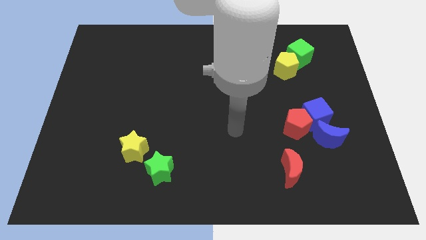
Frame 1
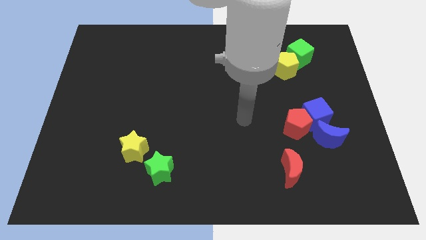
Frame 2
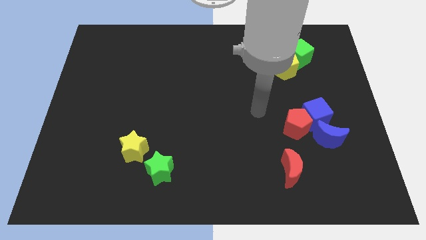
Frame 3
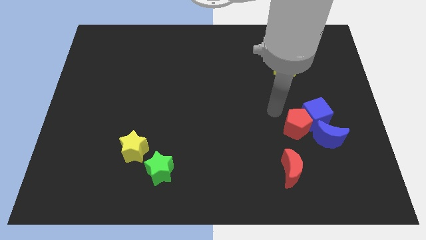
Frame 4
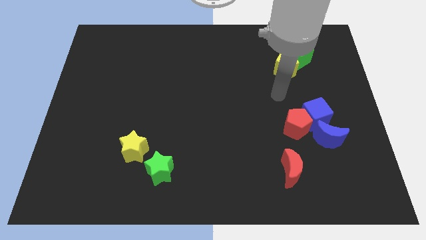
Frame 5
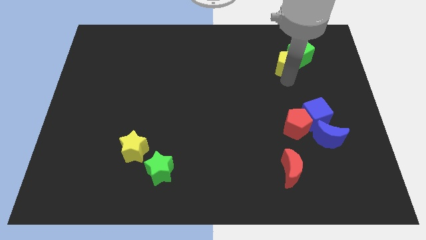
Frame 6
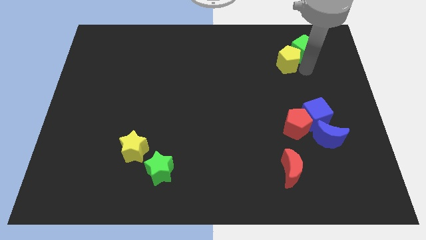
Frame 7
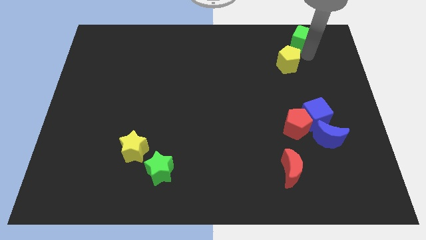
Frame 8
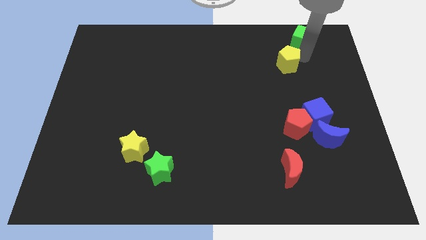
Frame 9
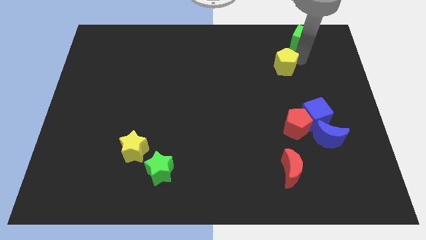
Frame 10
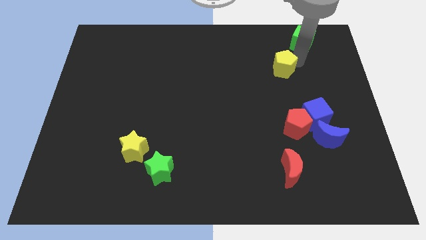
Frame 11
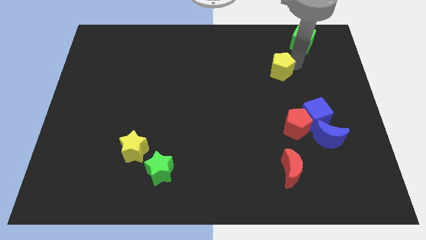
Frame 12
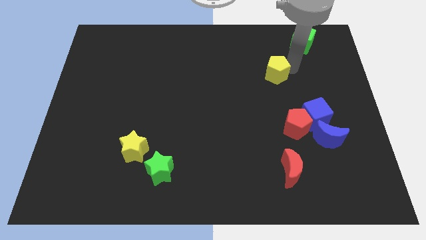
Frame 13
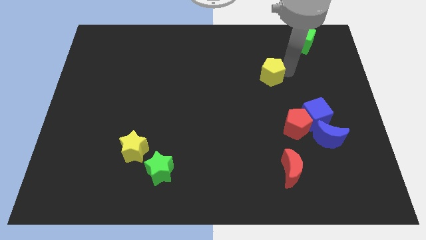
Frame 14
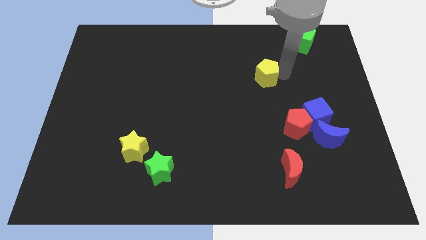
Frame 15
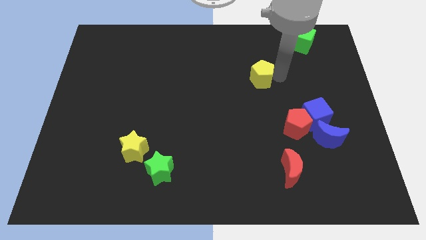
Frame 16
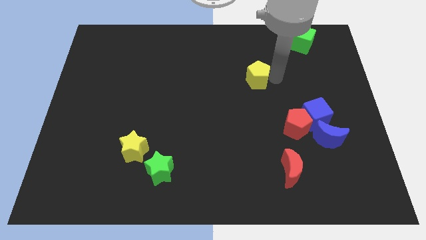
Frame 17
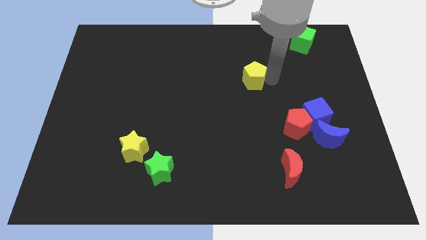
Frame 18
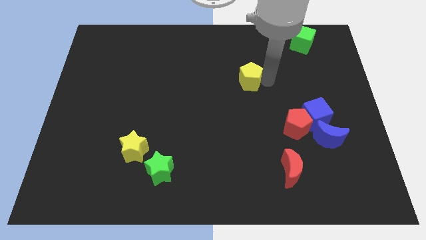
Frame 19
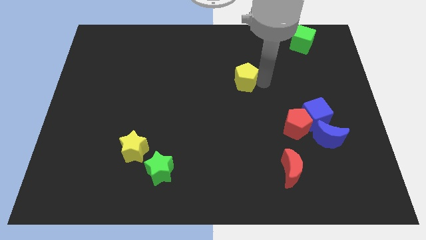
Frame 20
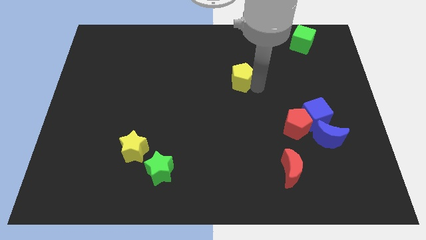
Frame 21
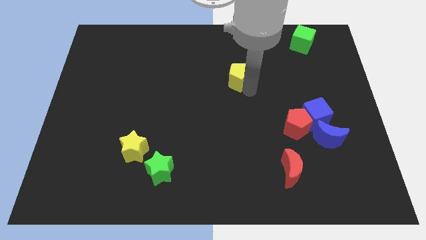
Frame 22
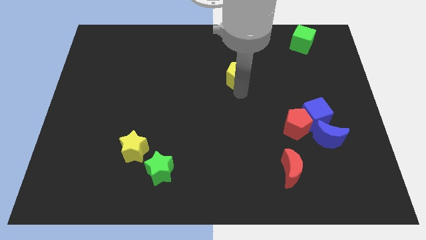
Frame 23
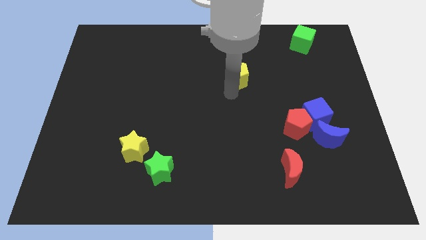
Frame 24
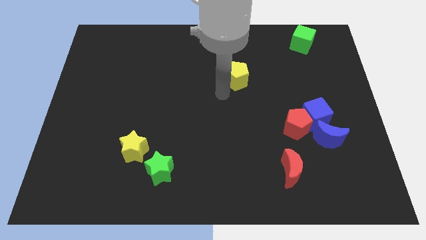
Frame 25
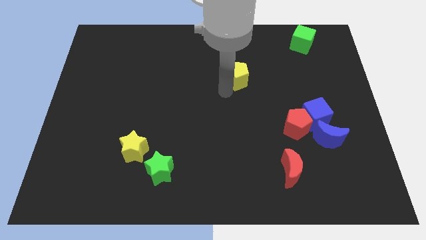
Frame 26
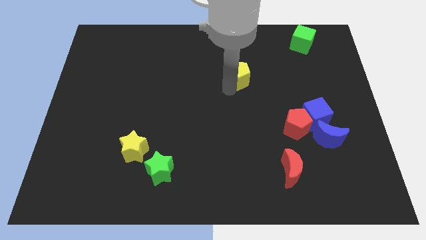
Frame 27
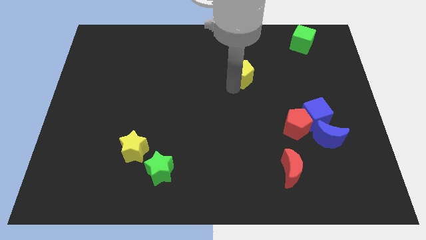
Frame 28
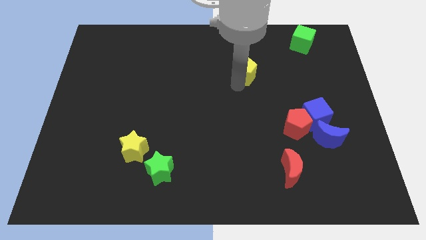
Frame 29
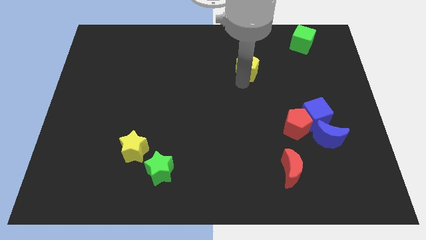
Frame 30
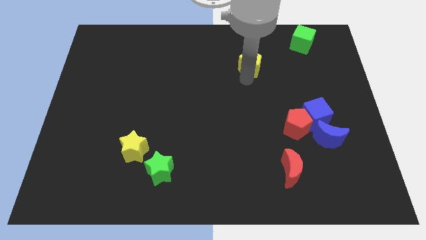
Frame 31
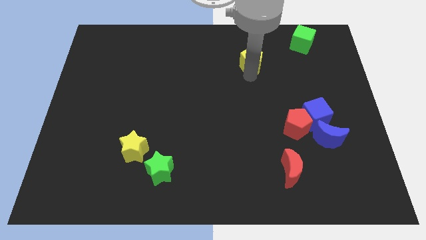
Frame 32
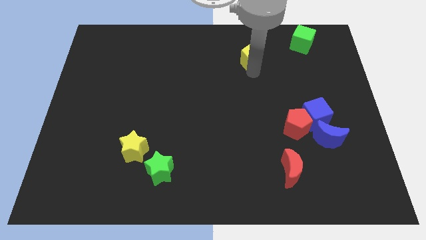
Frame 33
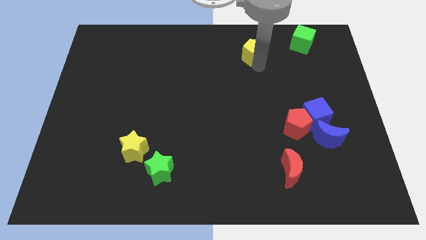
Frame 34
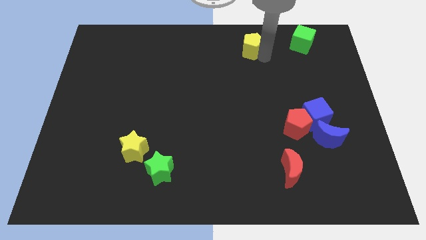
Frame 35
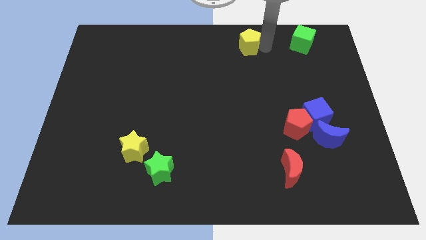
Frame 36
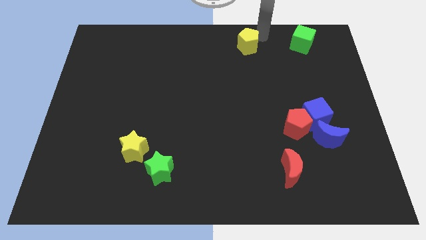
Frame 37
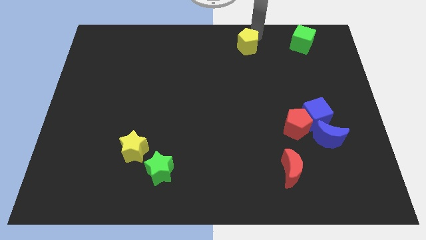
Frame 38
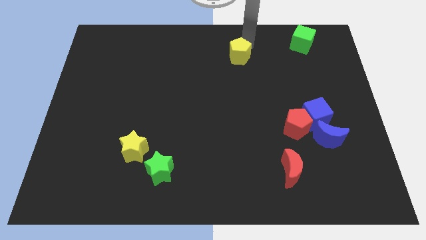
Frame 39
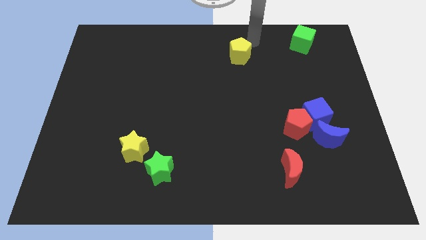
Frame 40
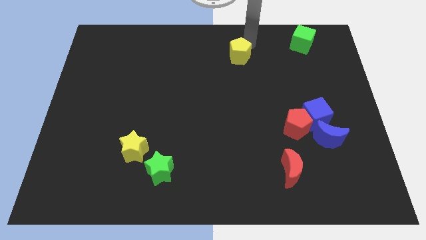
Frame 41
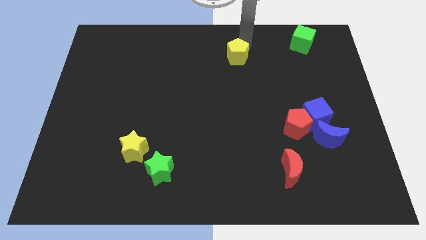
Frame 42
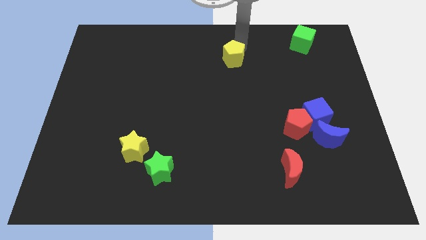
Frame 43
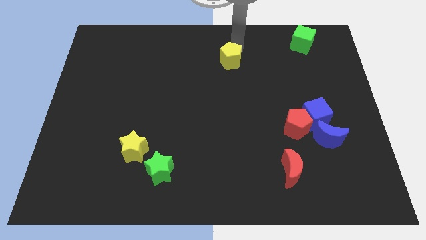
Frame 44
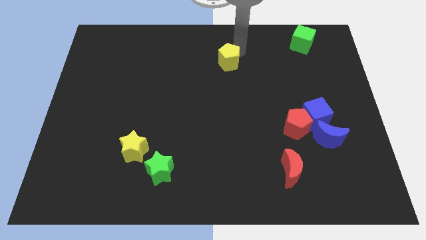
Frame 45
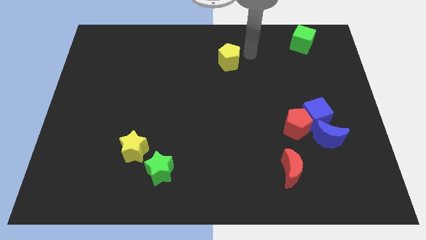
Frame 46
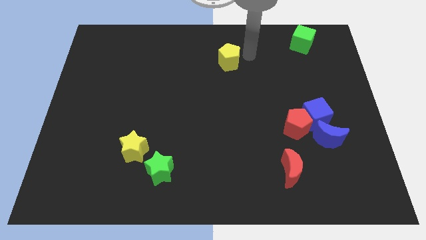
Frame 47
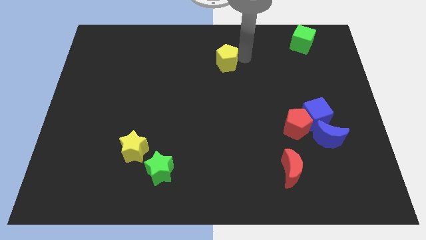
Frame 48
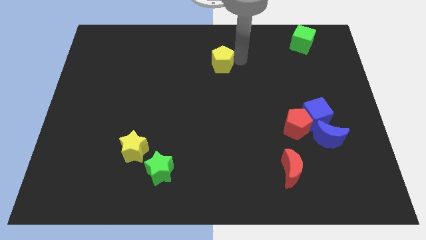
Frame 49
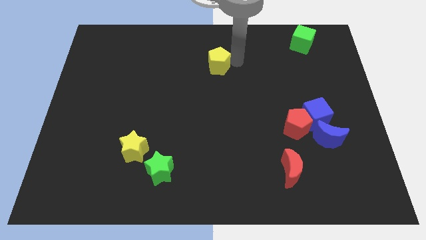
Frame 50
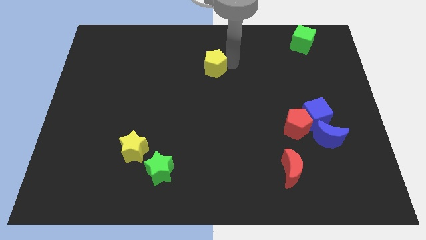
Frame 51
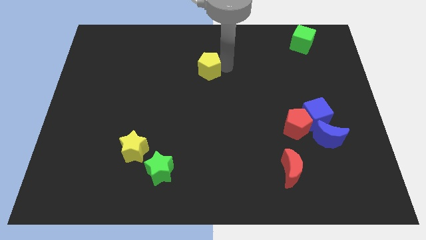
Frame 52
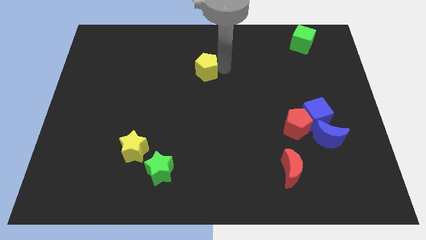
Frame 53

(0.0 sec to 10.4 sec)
push the yellow pentagon to the left

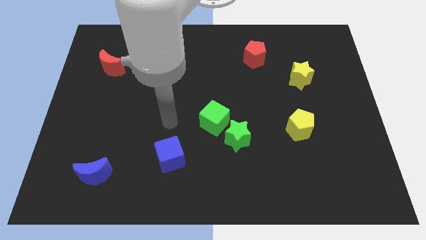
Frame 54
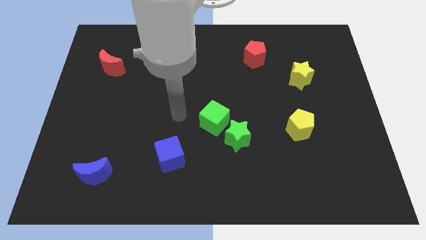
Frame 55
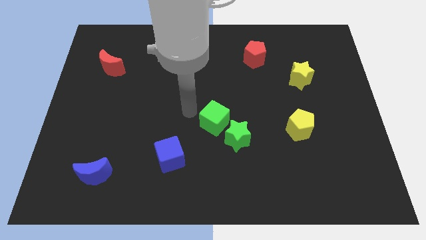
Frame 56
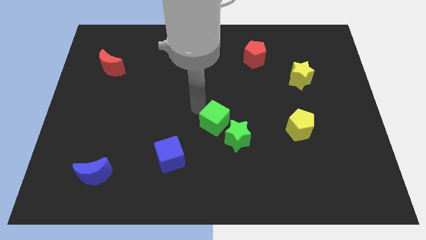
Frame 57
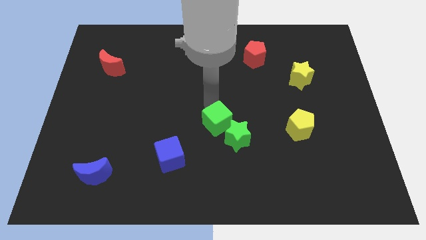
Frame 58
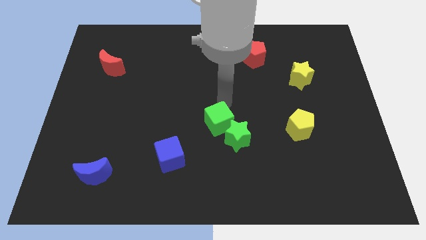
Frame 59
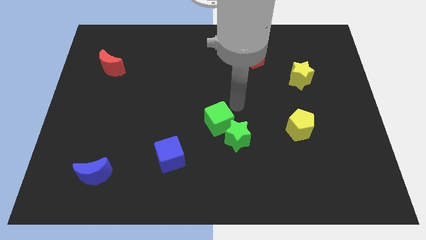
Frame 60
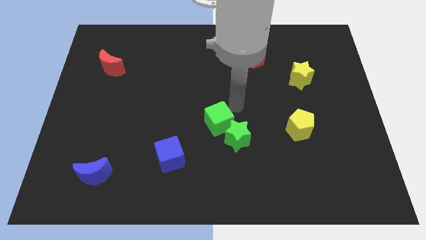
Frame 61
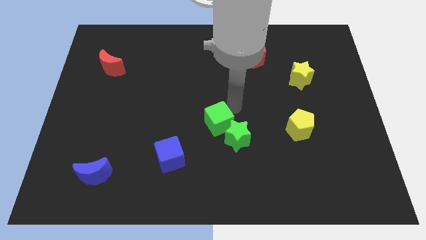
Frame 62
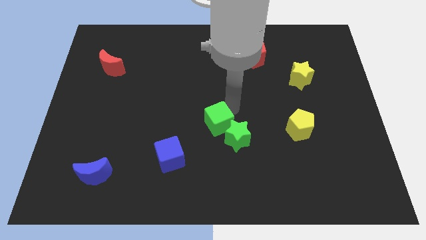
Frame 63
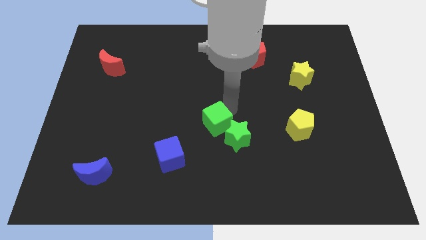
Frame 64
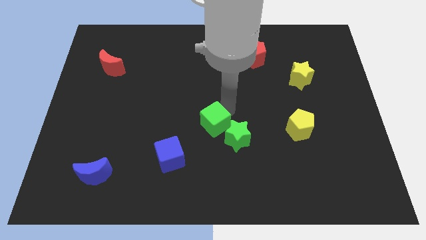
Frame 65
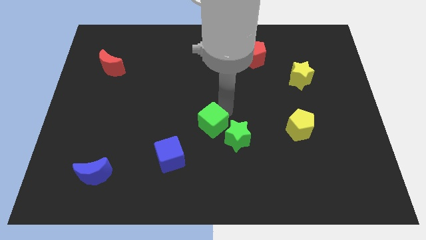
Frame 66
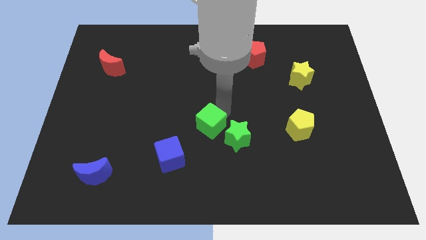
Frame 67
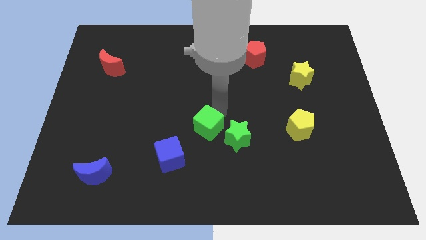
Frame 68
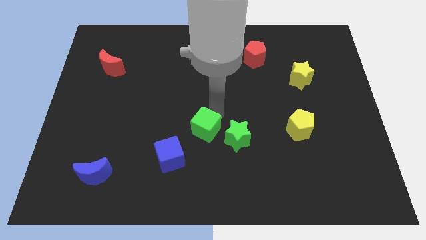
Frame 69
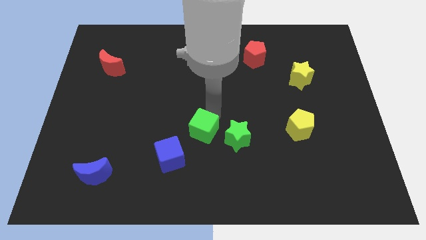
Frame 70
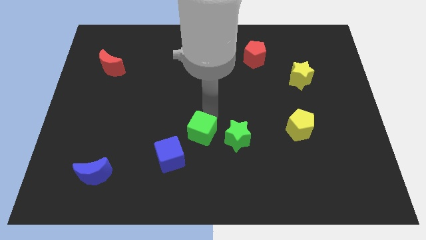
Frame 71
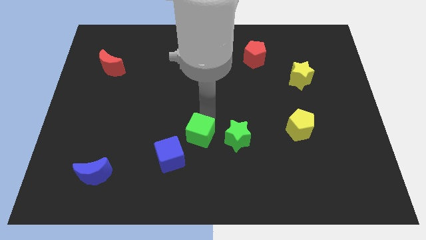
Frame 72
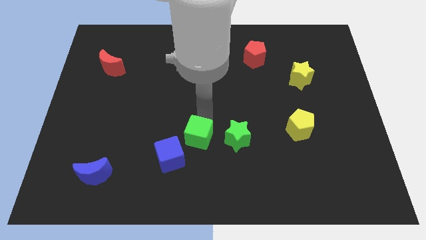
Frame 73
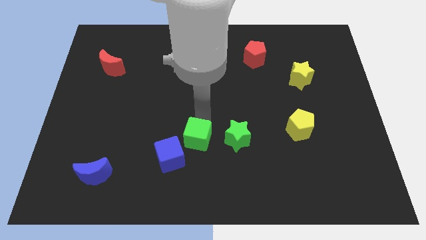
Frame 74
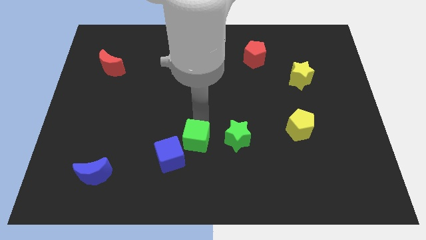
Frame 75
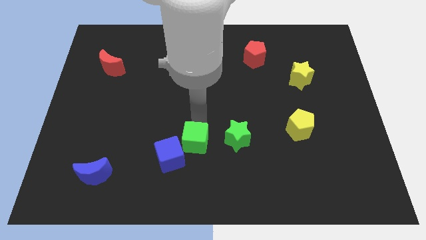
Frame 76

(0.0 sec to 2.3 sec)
slide the green cube down and then left slightly

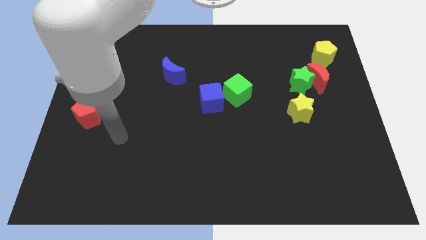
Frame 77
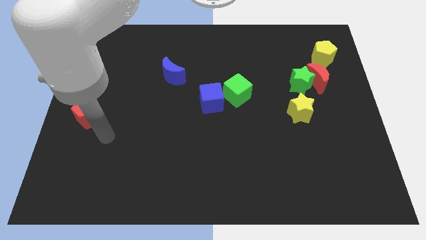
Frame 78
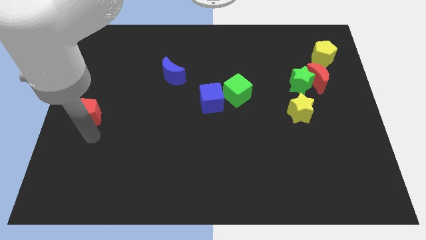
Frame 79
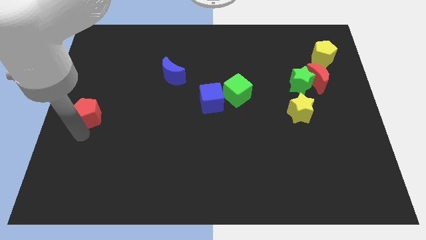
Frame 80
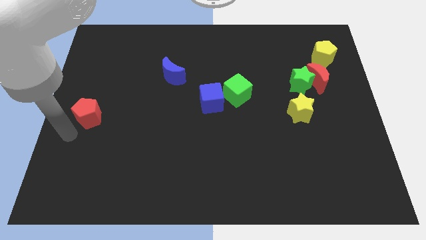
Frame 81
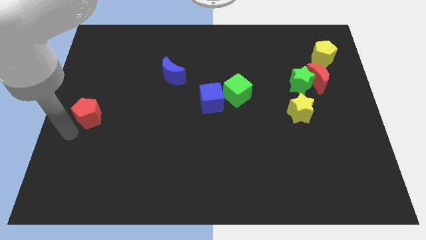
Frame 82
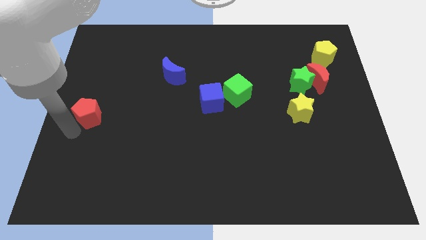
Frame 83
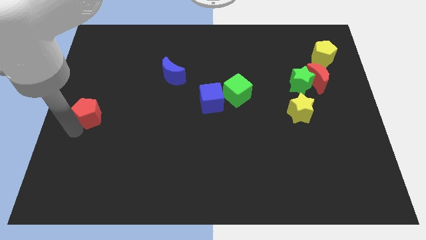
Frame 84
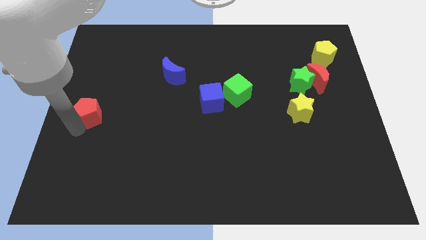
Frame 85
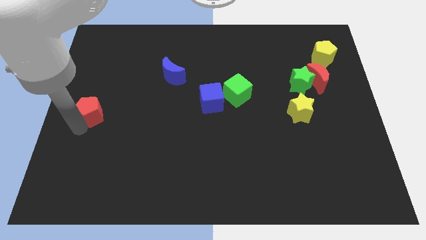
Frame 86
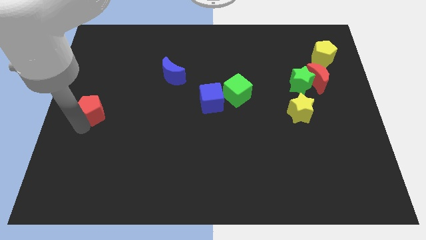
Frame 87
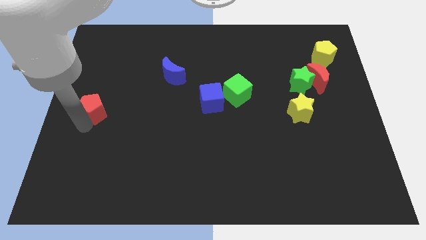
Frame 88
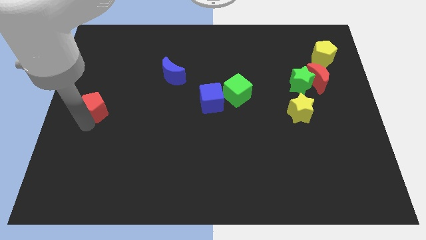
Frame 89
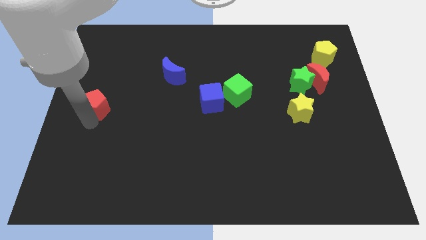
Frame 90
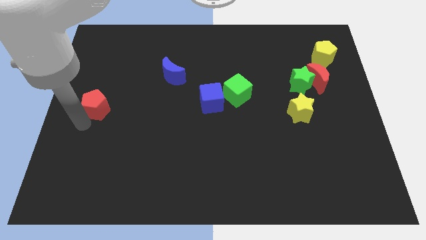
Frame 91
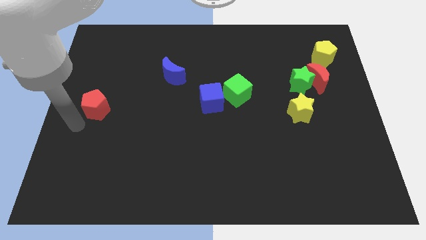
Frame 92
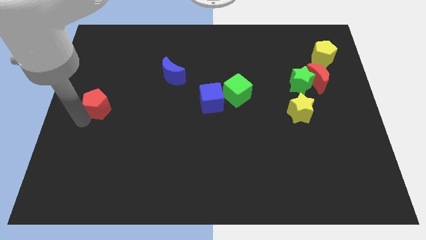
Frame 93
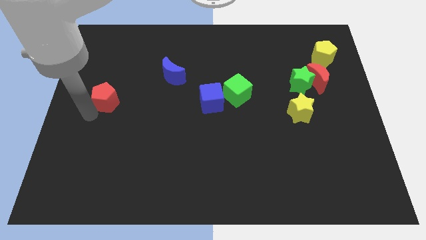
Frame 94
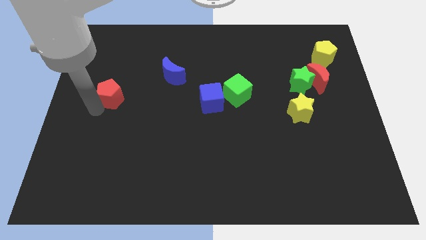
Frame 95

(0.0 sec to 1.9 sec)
slide the red pentagon slightly upwards and then right
